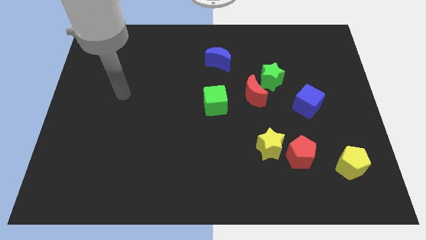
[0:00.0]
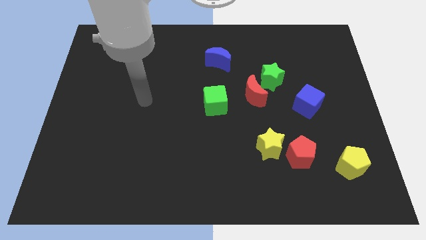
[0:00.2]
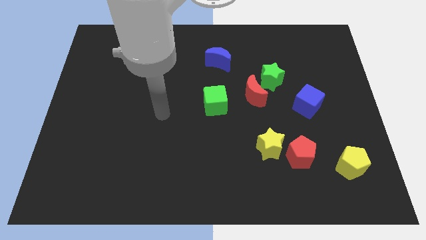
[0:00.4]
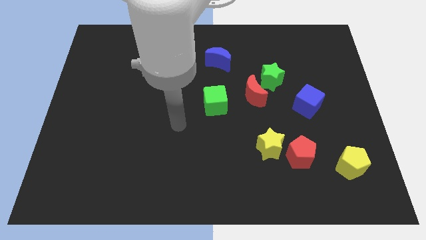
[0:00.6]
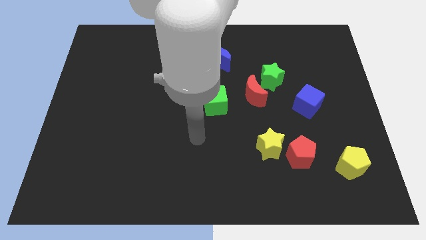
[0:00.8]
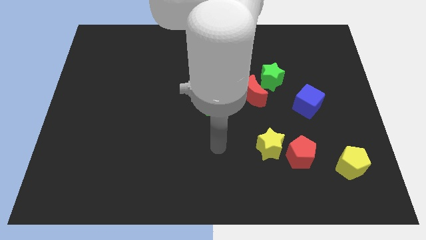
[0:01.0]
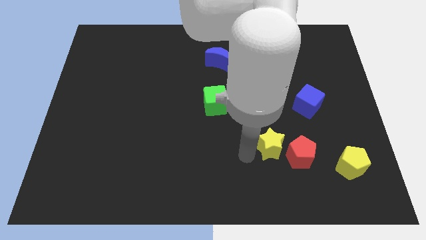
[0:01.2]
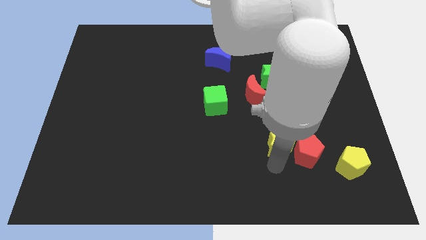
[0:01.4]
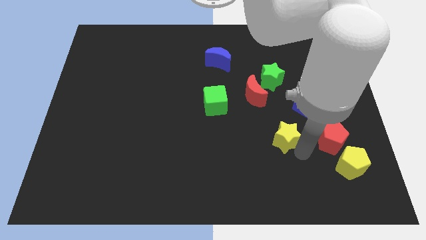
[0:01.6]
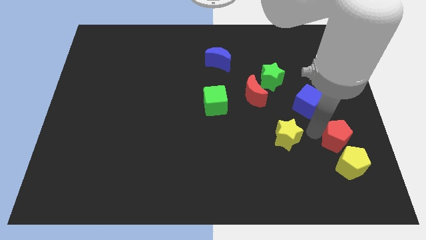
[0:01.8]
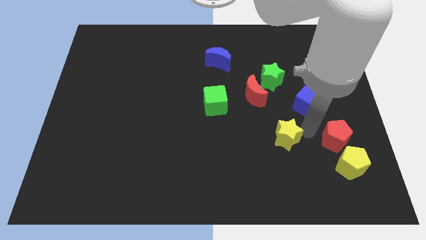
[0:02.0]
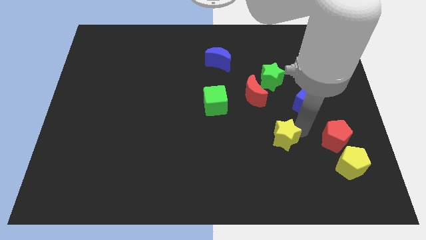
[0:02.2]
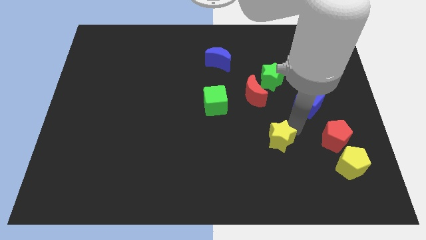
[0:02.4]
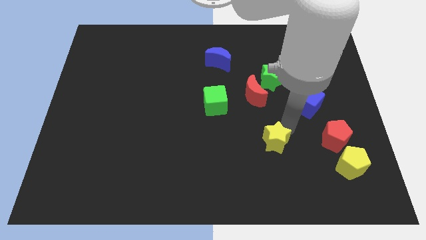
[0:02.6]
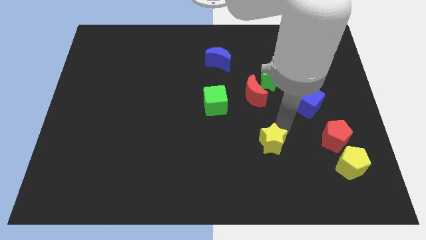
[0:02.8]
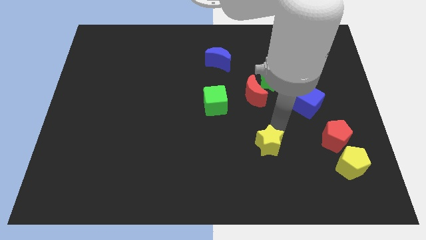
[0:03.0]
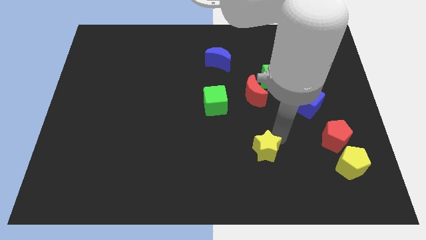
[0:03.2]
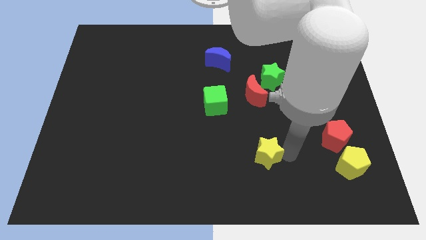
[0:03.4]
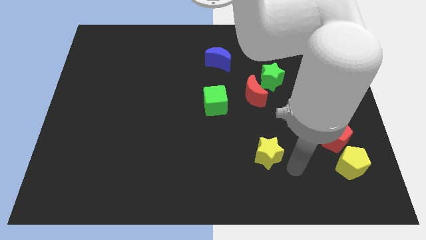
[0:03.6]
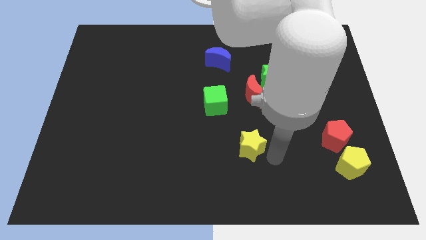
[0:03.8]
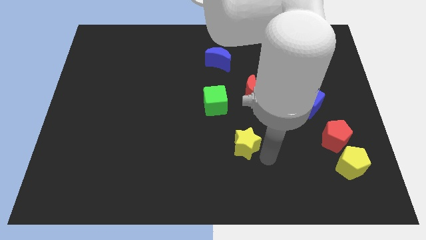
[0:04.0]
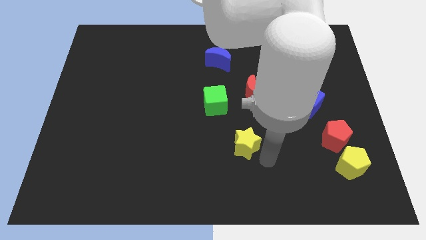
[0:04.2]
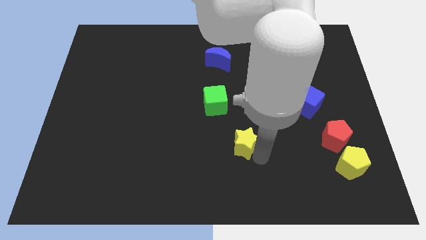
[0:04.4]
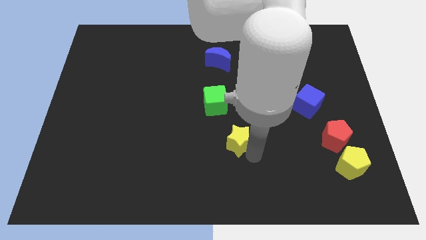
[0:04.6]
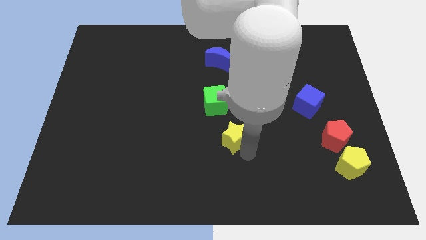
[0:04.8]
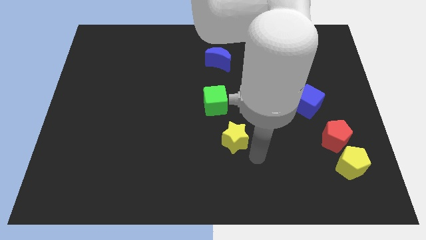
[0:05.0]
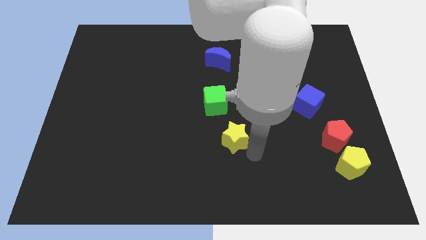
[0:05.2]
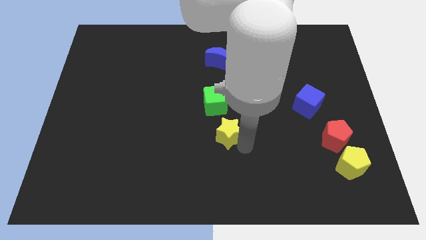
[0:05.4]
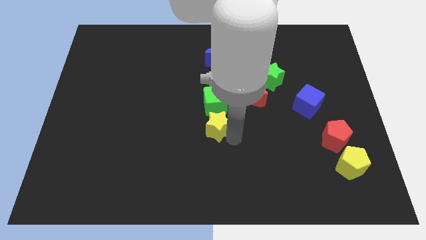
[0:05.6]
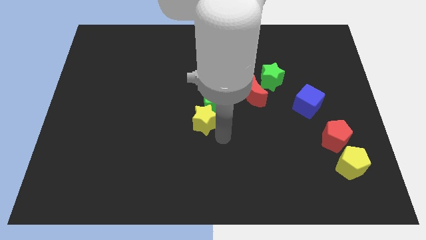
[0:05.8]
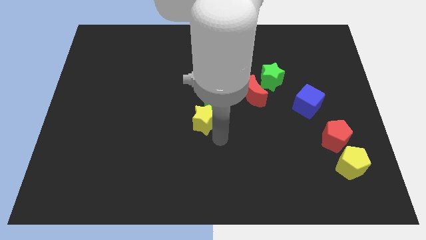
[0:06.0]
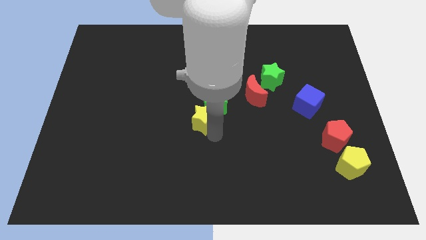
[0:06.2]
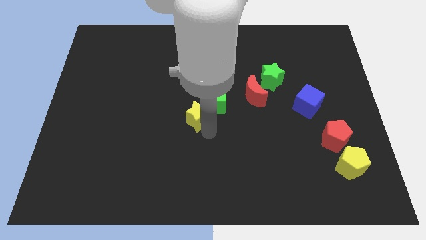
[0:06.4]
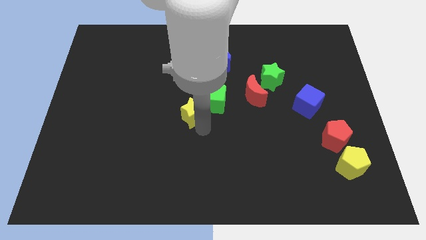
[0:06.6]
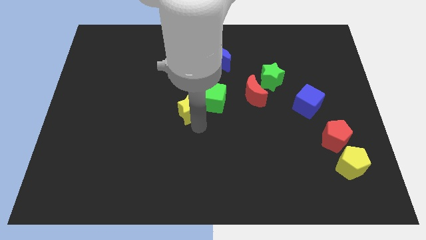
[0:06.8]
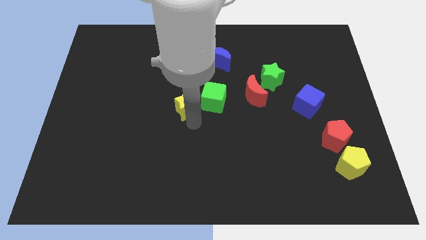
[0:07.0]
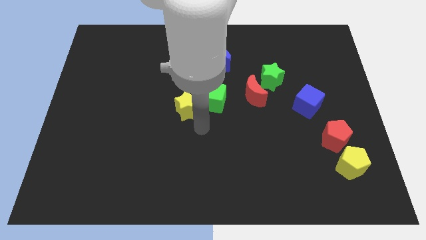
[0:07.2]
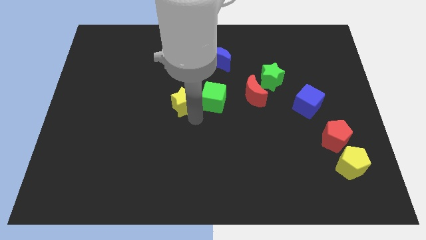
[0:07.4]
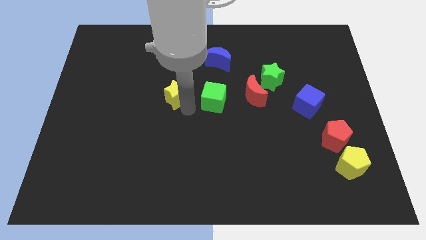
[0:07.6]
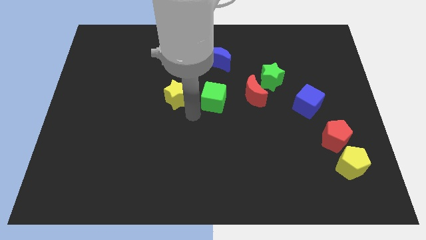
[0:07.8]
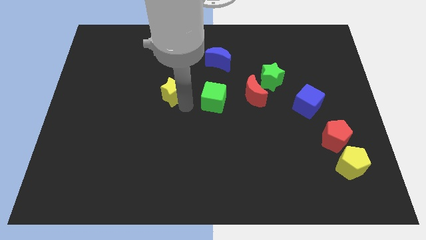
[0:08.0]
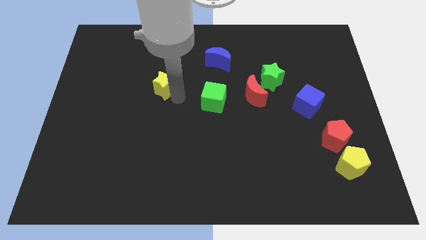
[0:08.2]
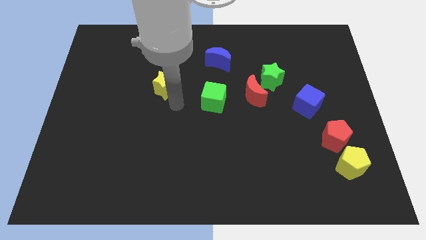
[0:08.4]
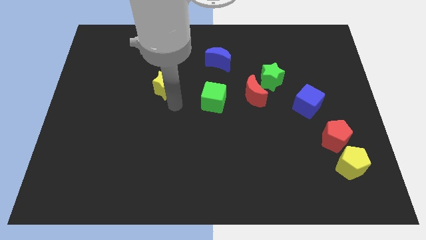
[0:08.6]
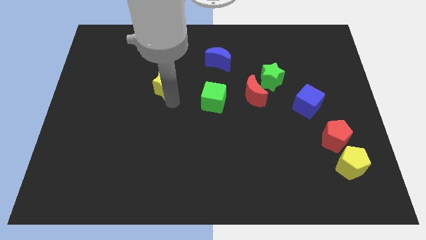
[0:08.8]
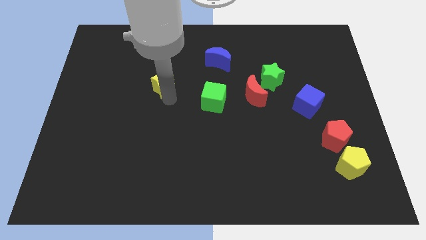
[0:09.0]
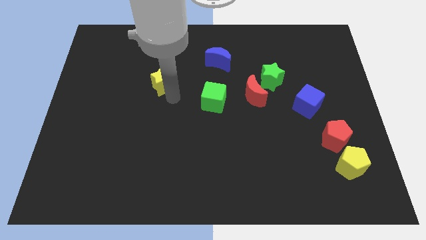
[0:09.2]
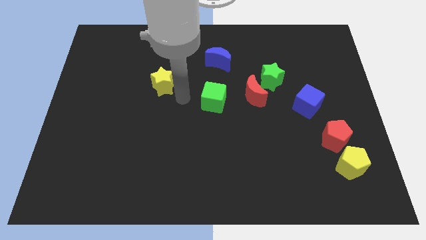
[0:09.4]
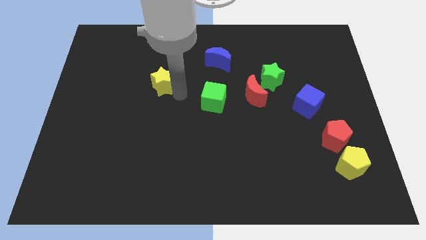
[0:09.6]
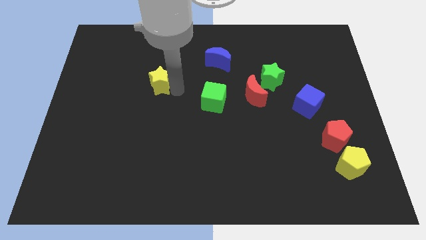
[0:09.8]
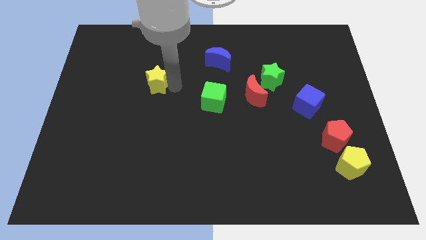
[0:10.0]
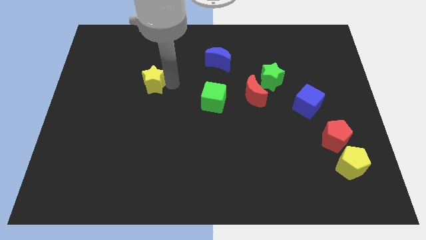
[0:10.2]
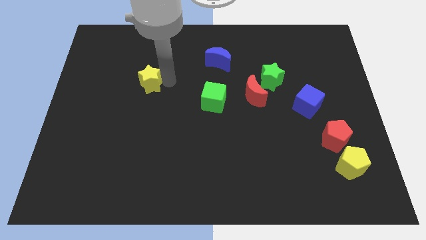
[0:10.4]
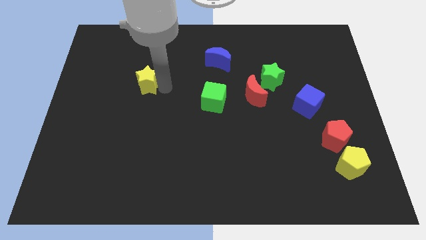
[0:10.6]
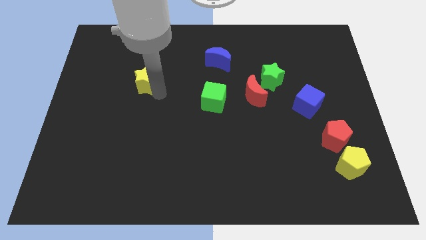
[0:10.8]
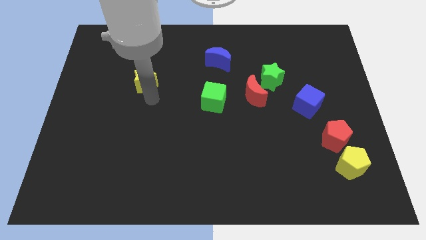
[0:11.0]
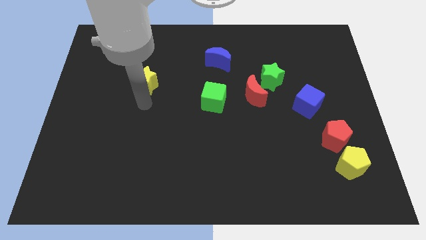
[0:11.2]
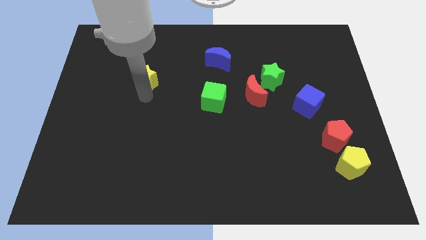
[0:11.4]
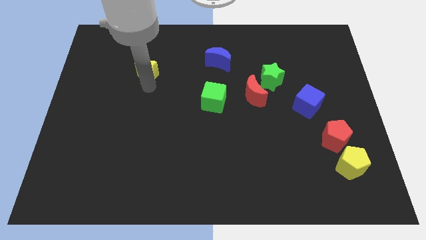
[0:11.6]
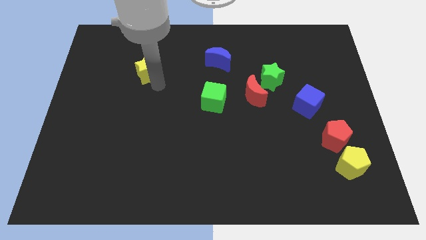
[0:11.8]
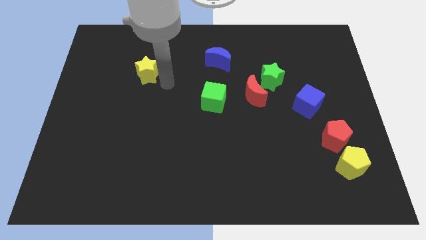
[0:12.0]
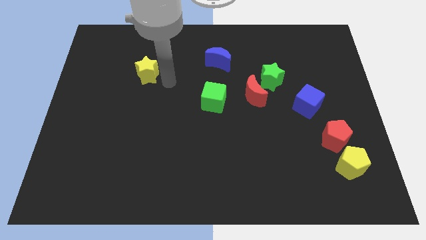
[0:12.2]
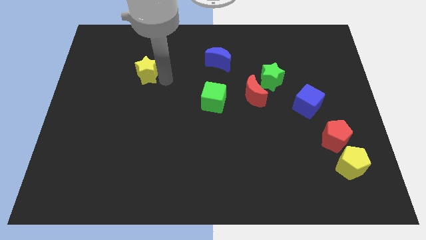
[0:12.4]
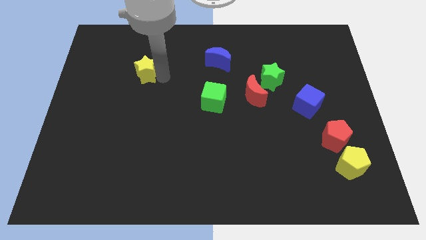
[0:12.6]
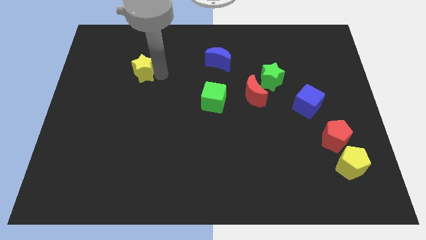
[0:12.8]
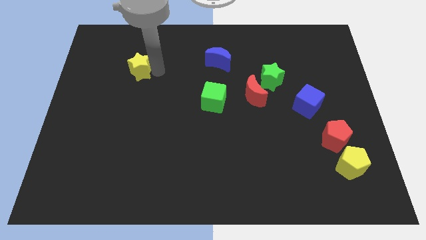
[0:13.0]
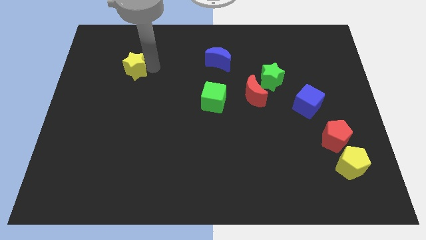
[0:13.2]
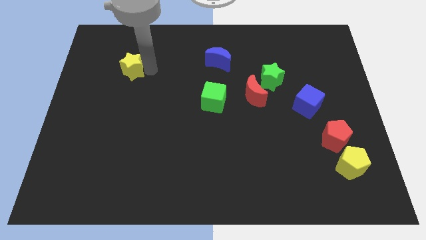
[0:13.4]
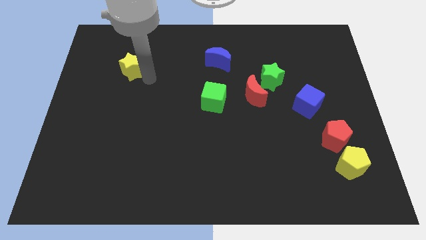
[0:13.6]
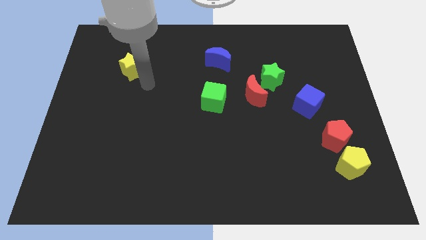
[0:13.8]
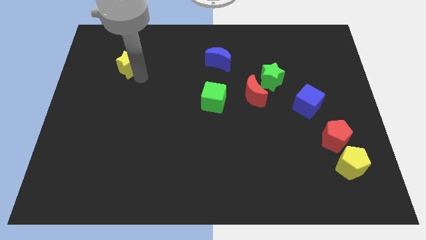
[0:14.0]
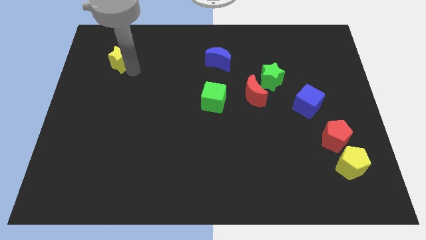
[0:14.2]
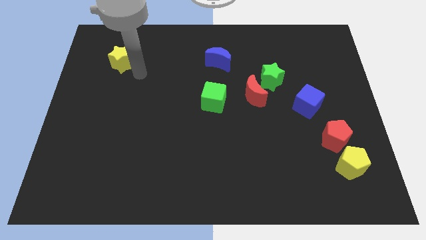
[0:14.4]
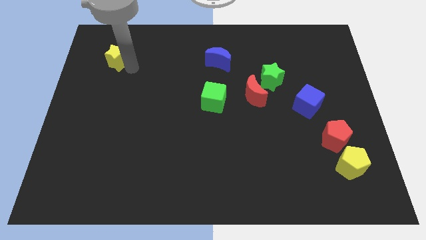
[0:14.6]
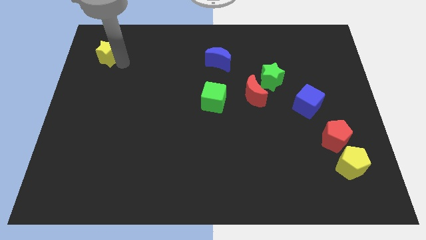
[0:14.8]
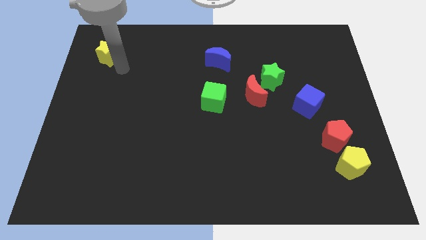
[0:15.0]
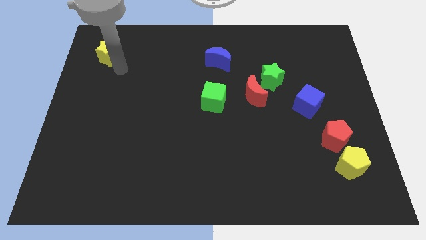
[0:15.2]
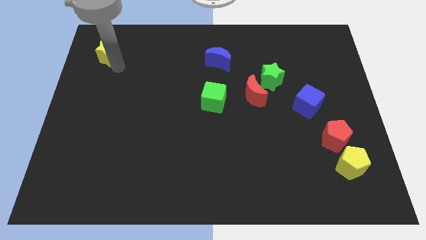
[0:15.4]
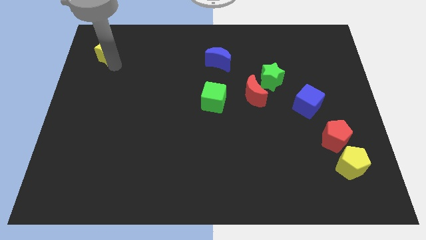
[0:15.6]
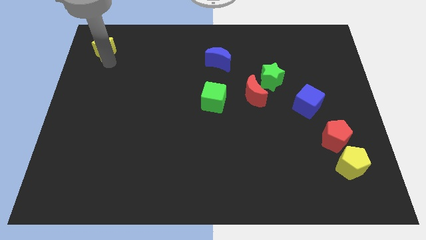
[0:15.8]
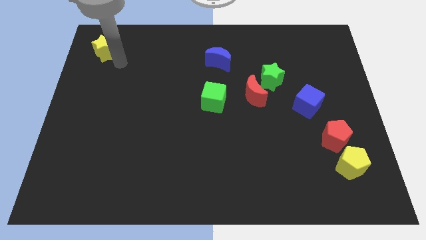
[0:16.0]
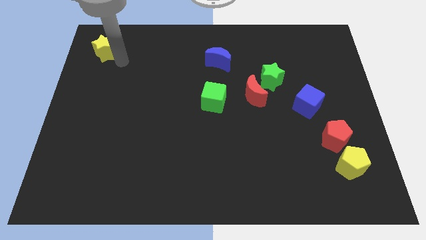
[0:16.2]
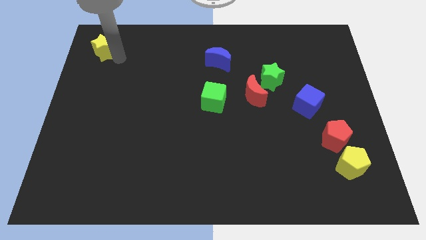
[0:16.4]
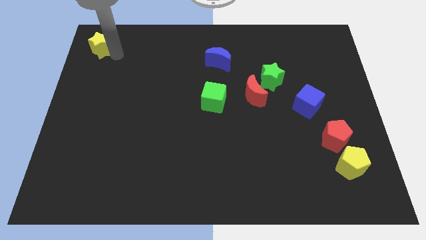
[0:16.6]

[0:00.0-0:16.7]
put the yellow star to the top left corner
